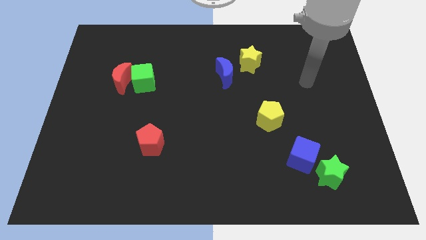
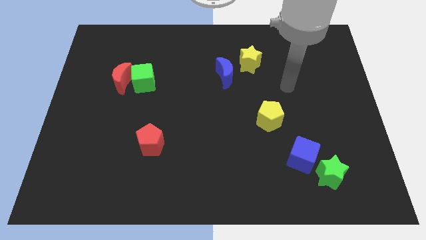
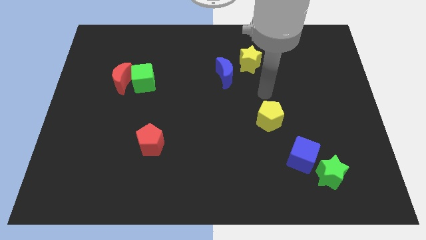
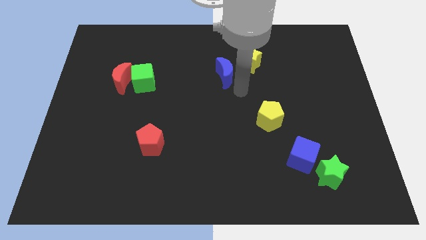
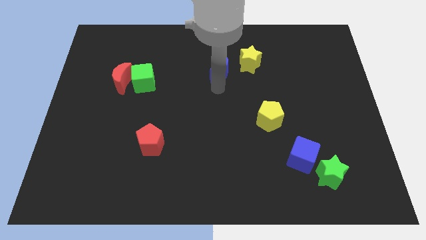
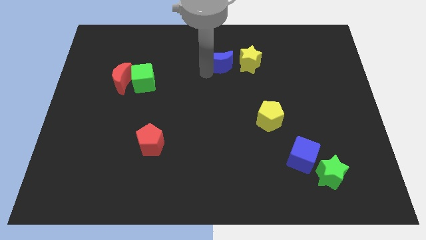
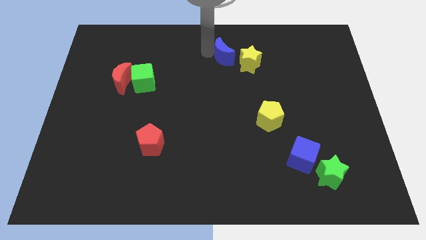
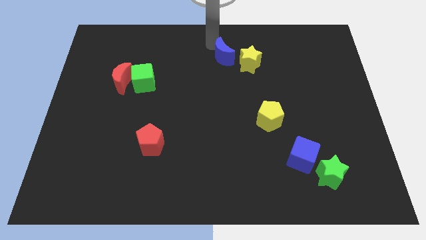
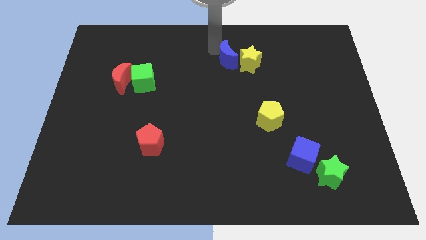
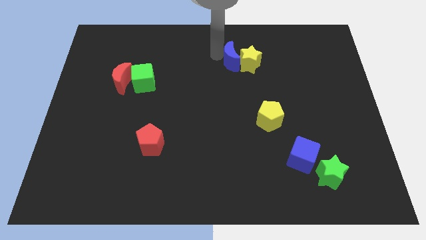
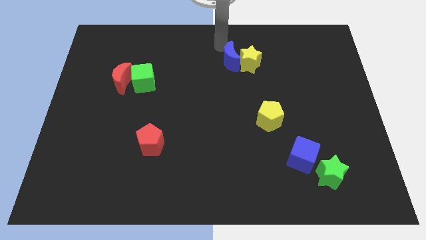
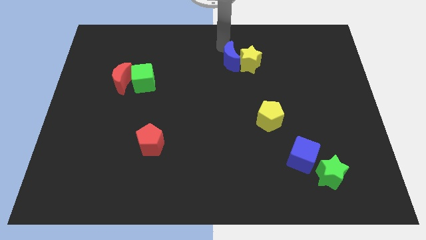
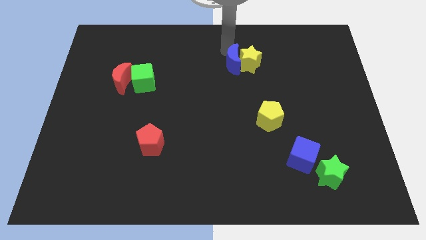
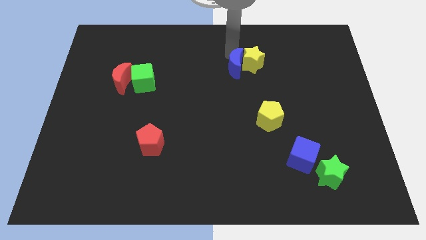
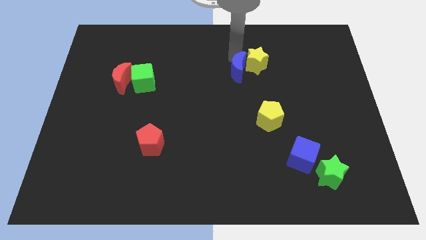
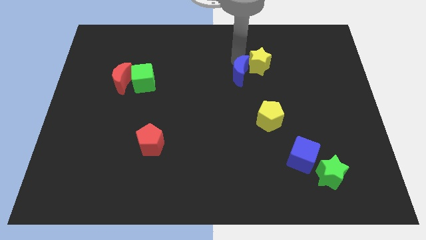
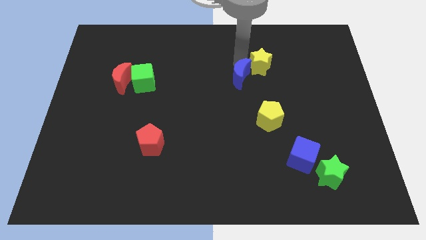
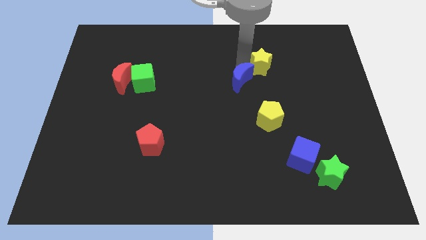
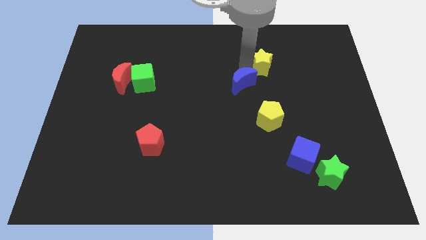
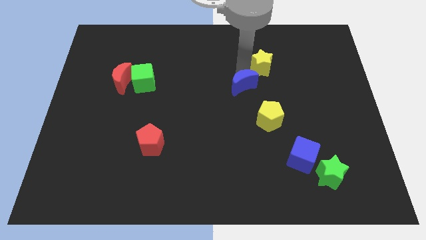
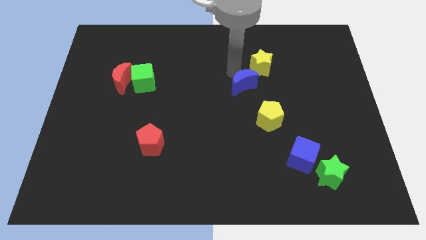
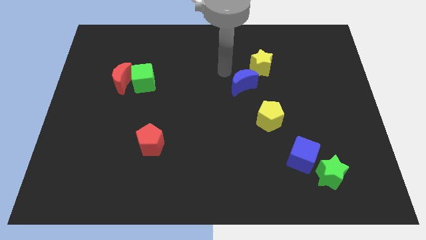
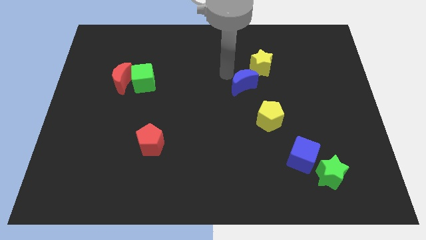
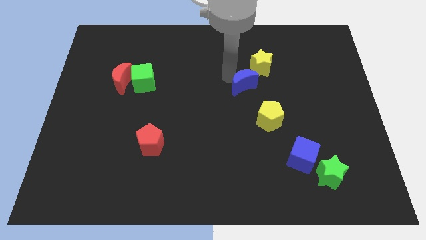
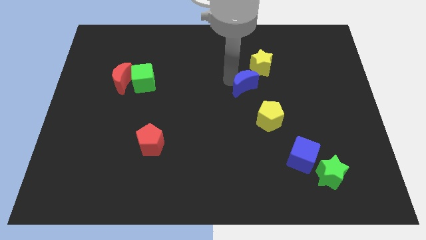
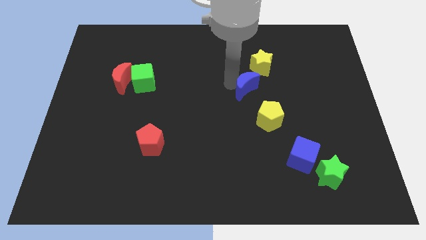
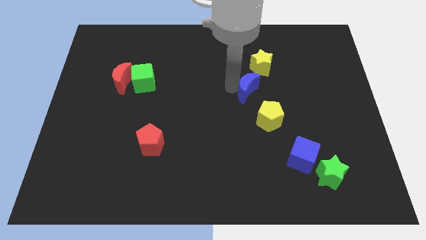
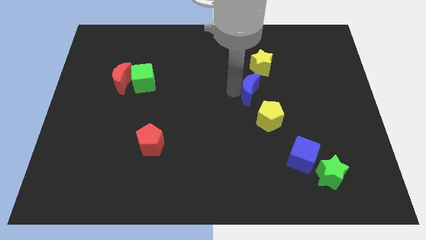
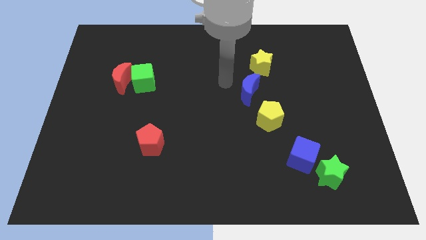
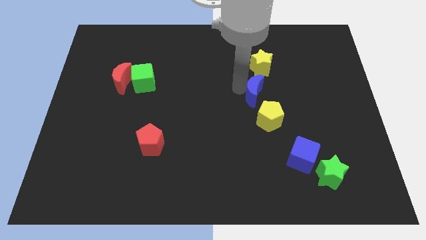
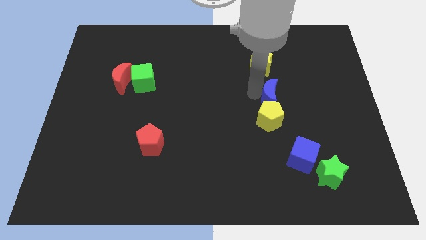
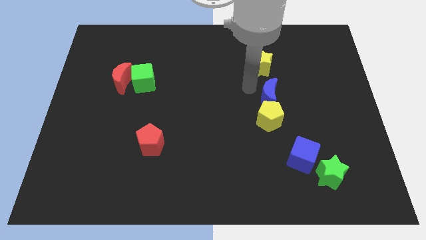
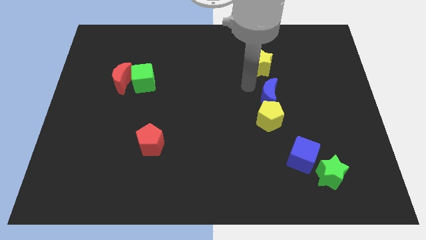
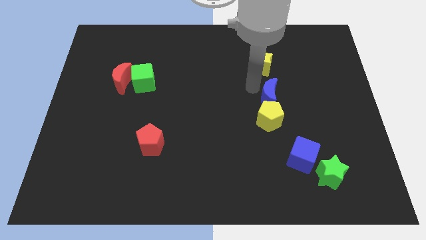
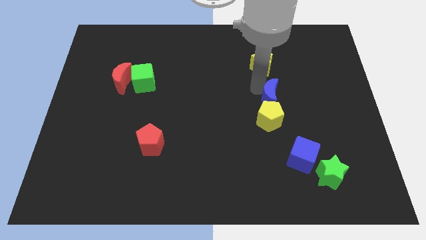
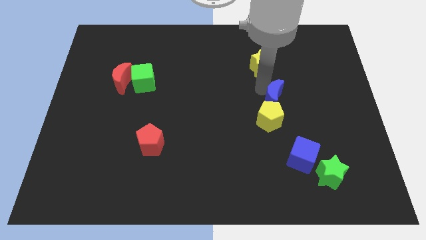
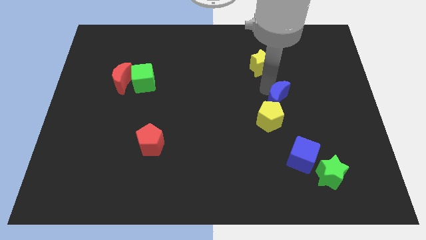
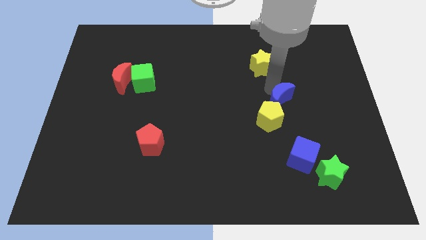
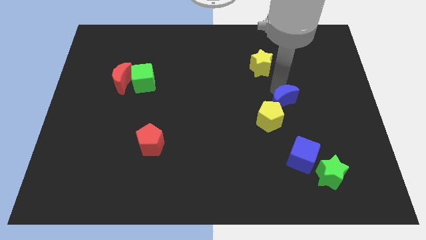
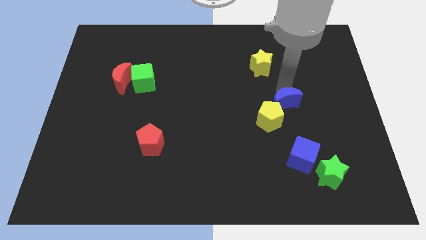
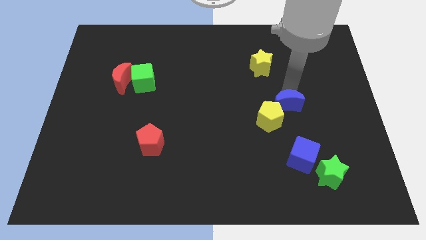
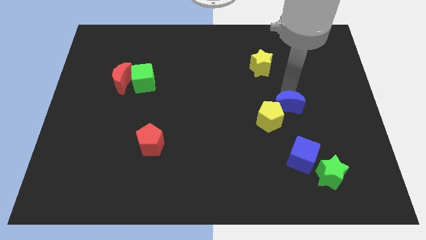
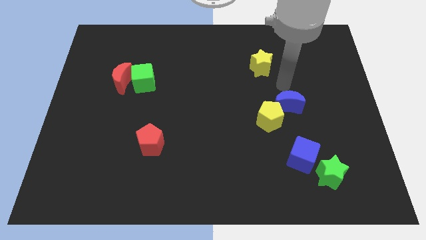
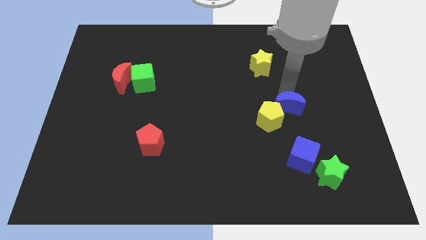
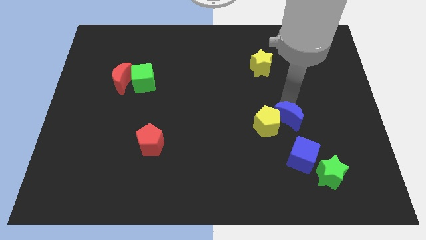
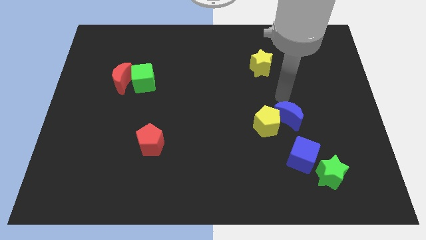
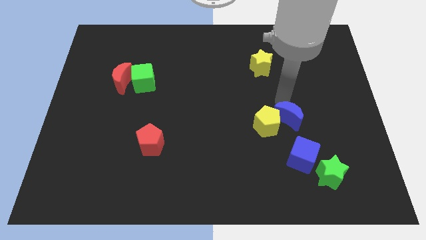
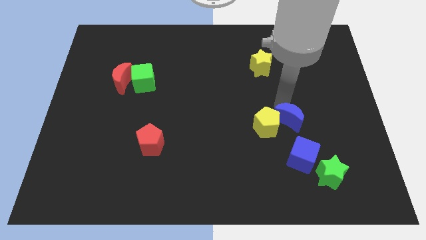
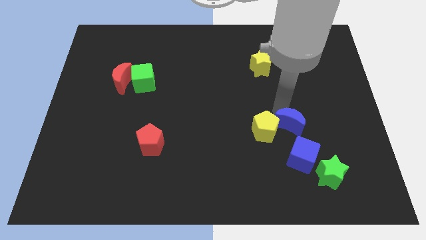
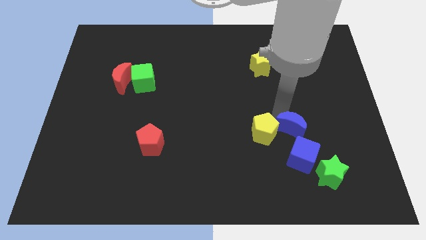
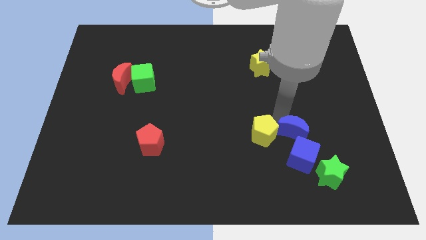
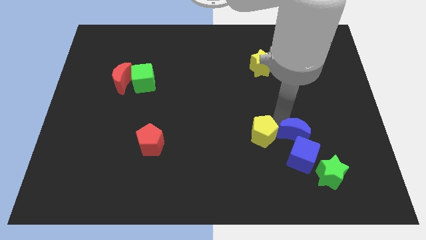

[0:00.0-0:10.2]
move the blue moon close to the blue cube

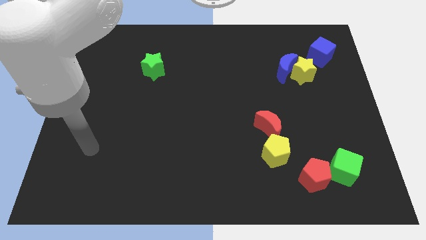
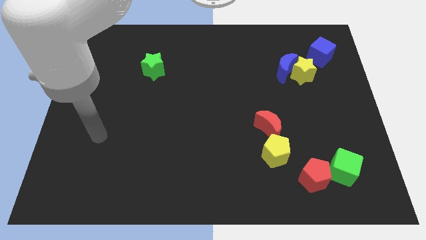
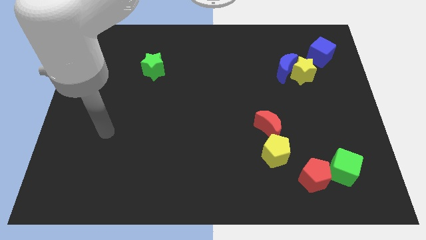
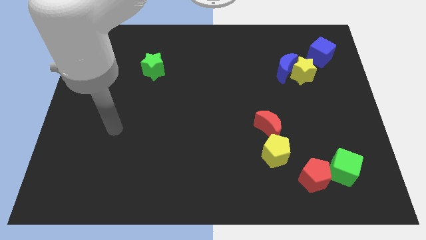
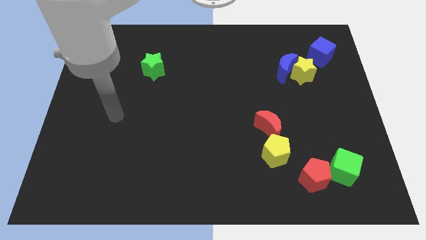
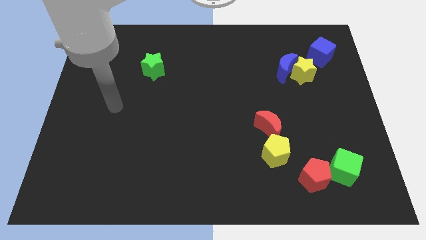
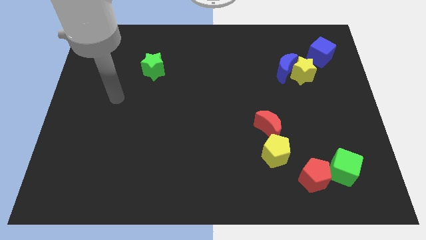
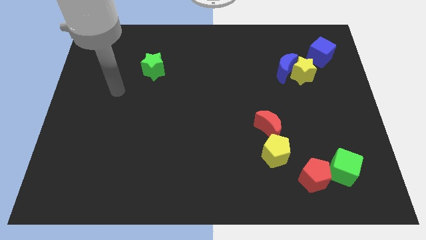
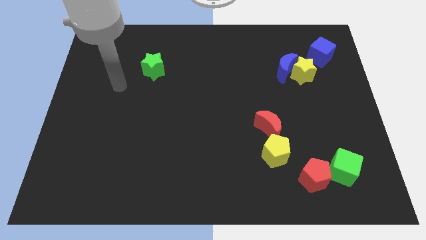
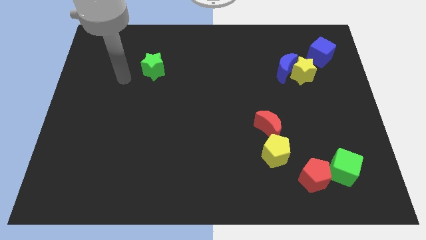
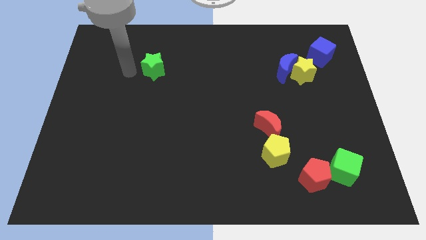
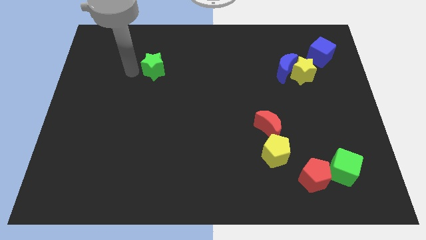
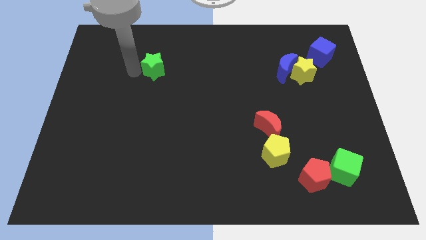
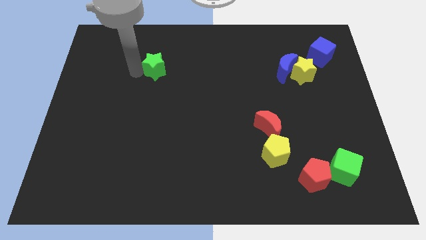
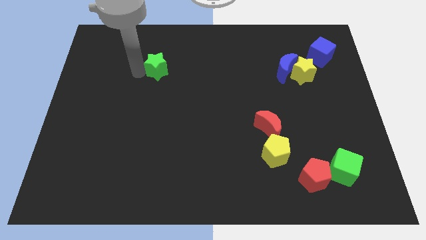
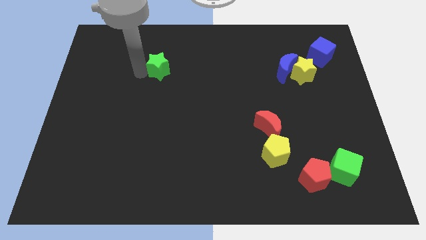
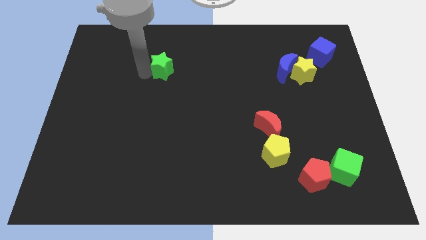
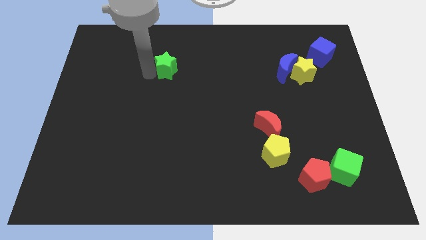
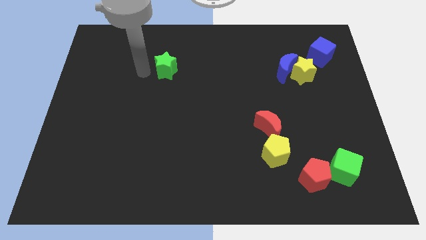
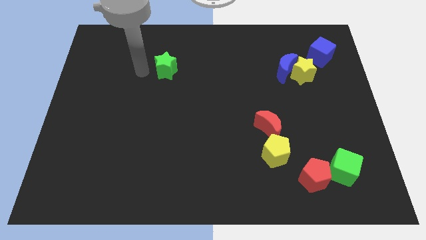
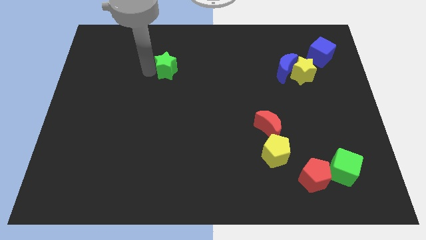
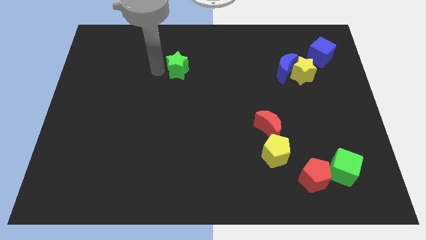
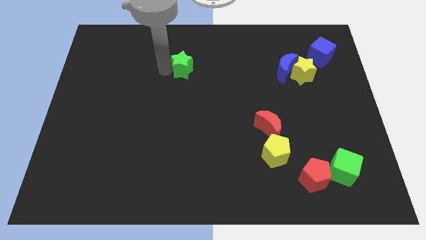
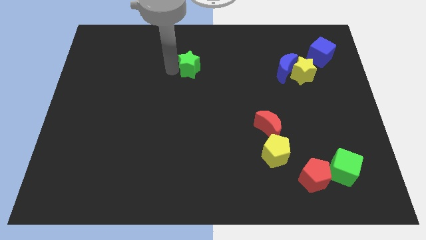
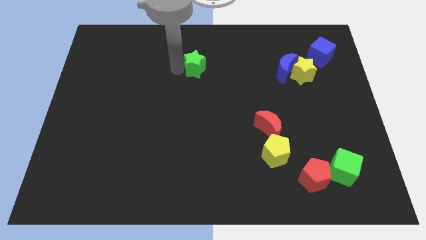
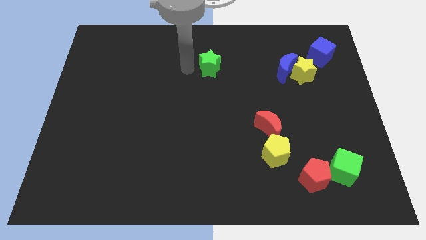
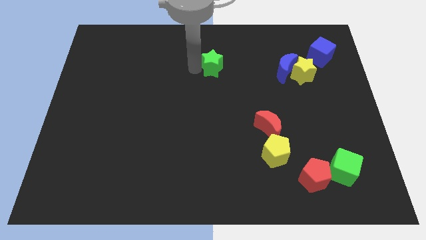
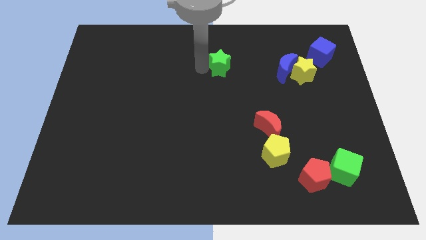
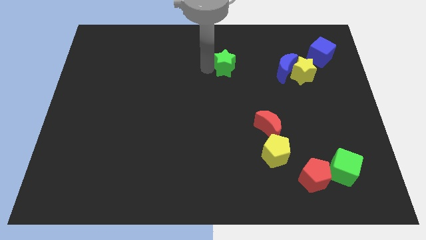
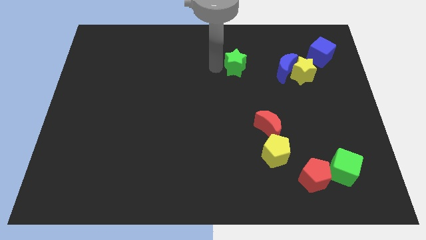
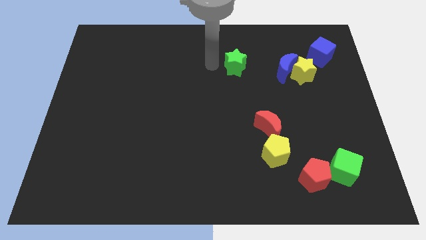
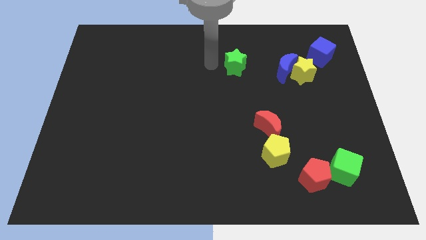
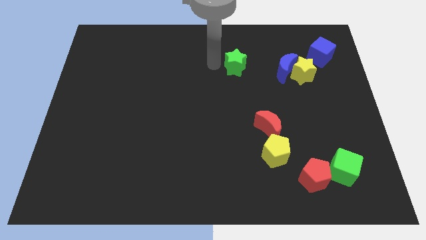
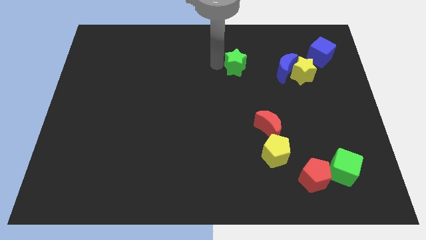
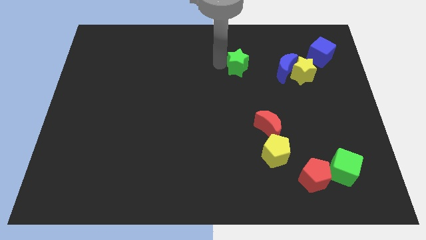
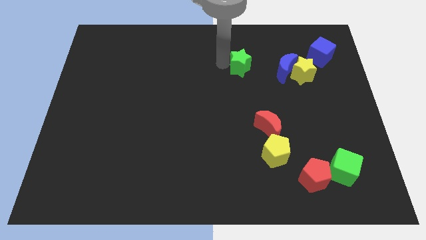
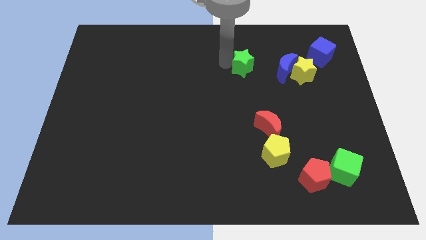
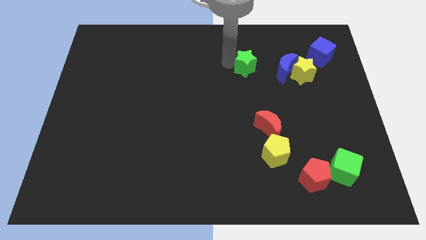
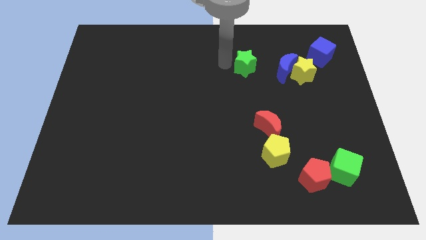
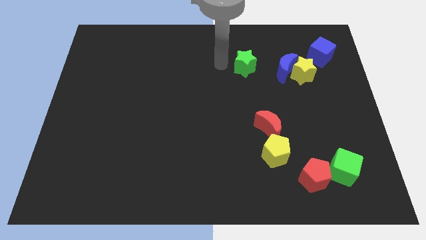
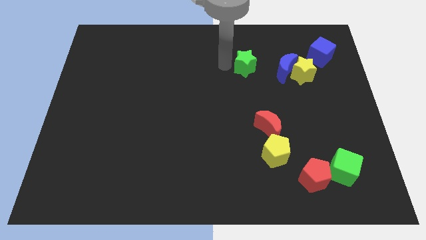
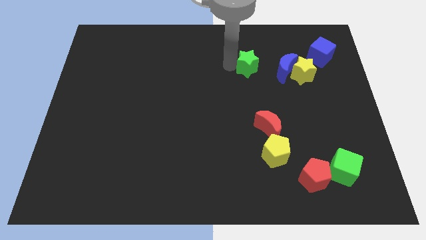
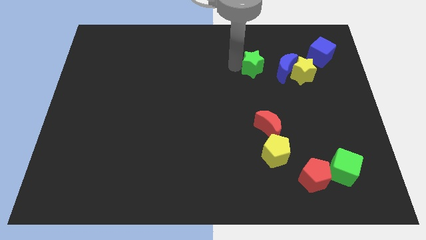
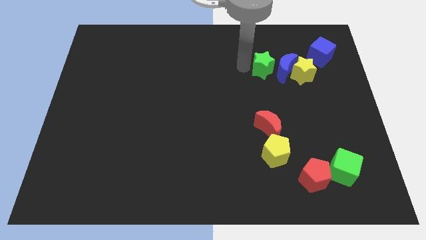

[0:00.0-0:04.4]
slide the green star towards the blue moon
